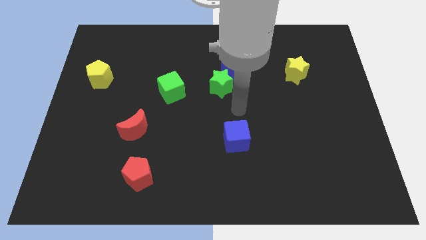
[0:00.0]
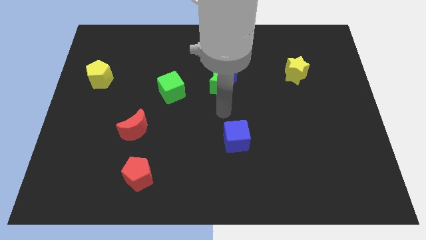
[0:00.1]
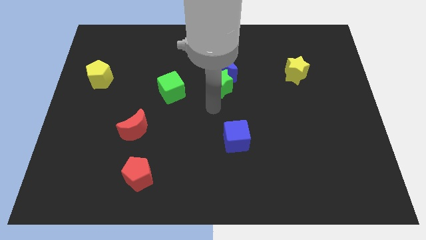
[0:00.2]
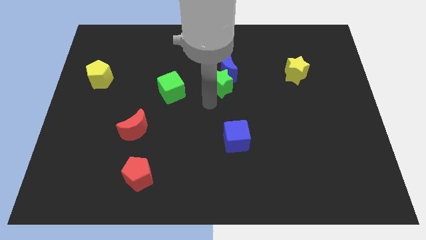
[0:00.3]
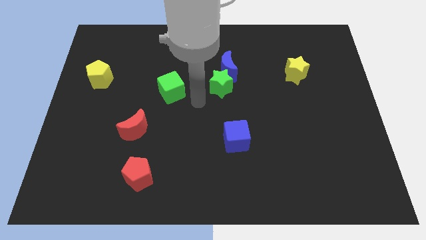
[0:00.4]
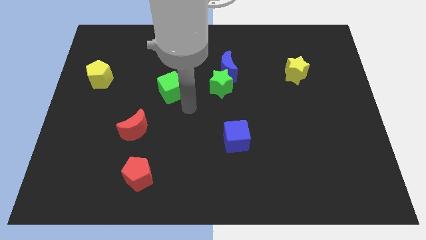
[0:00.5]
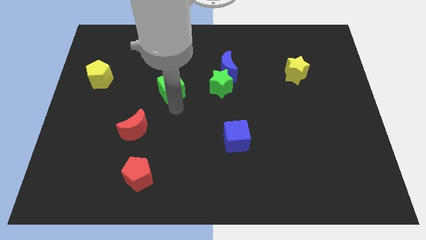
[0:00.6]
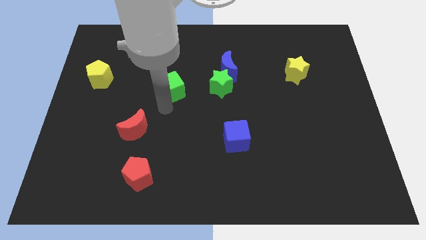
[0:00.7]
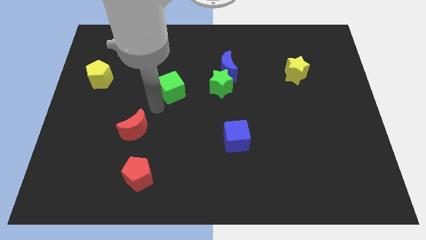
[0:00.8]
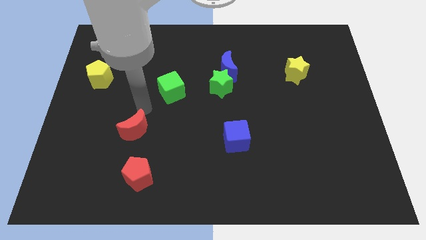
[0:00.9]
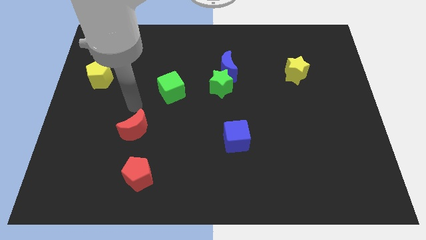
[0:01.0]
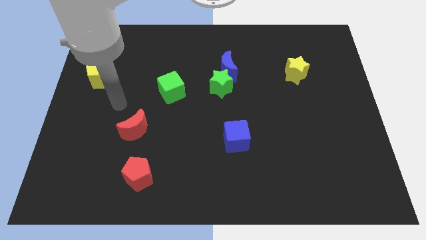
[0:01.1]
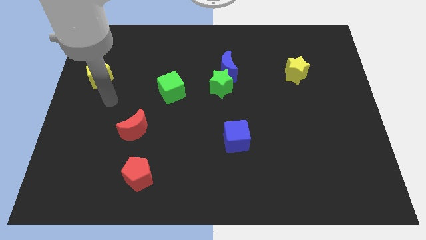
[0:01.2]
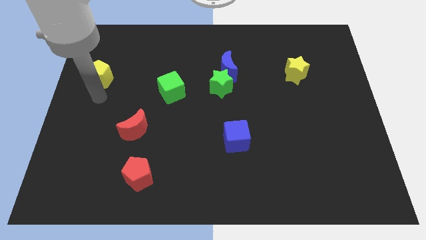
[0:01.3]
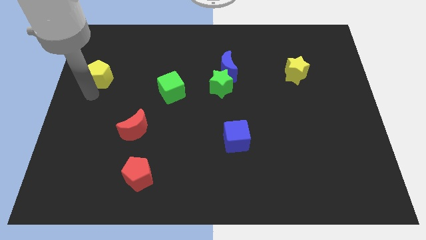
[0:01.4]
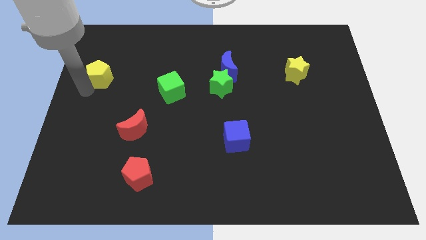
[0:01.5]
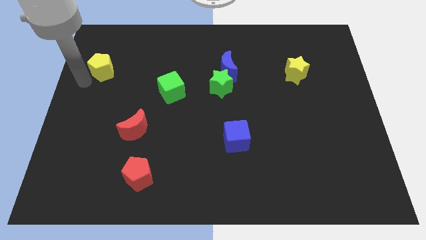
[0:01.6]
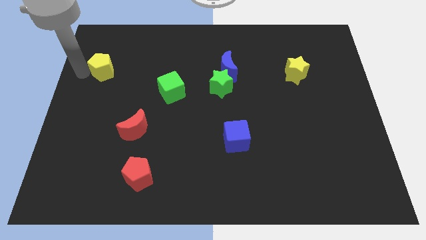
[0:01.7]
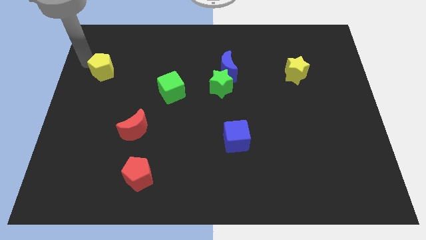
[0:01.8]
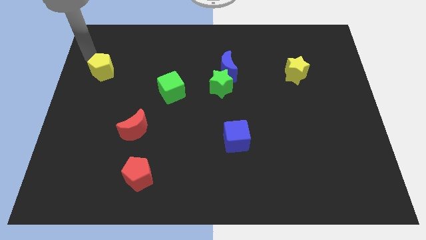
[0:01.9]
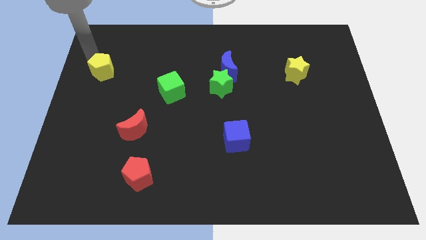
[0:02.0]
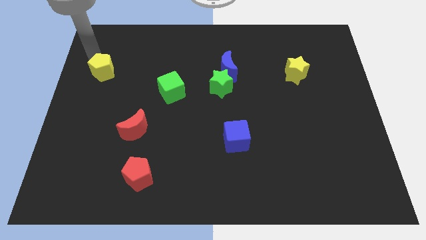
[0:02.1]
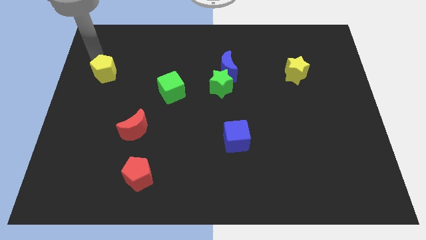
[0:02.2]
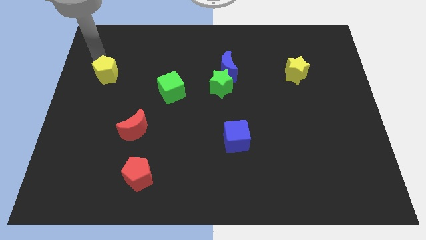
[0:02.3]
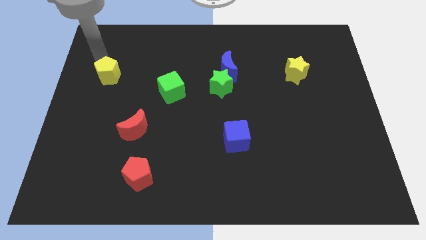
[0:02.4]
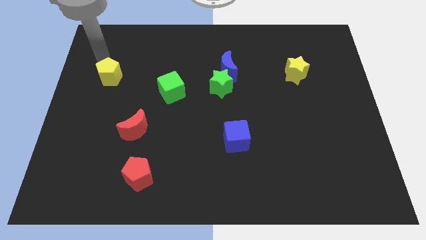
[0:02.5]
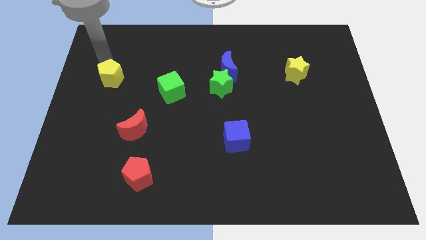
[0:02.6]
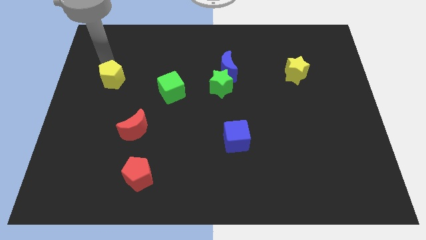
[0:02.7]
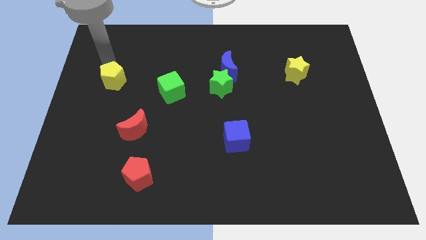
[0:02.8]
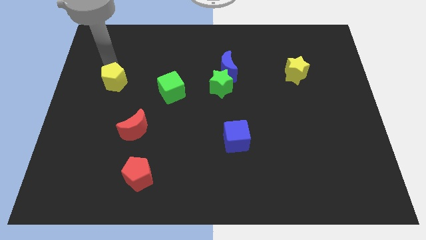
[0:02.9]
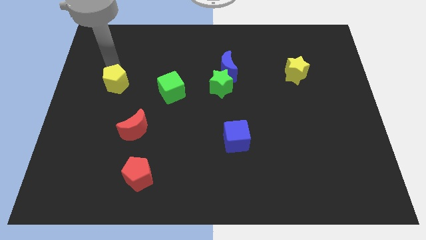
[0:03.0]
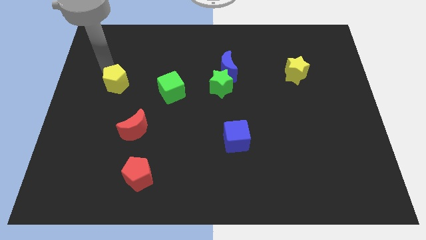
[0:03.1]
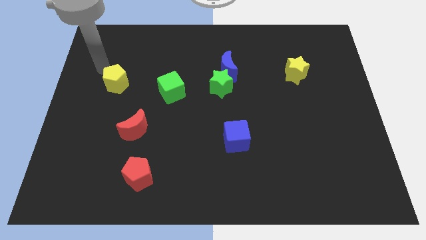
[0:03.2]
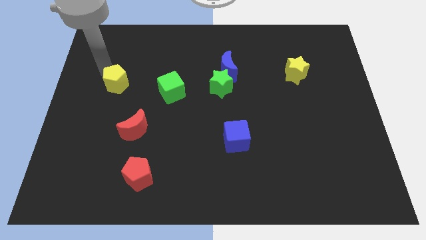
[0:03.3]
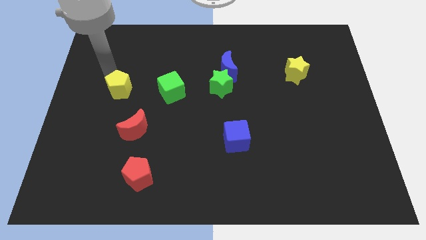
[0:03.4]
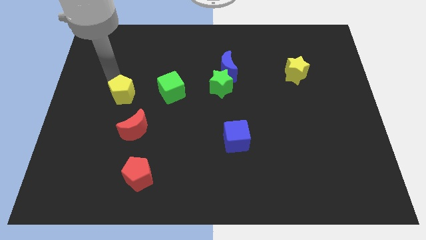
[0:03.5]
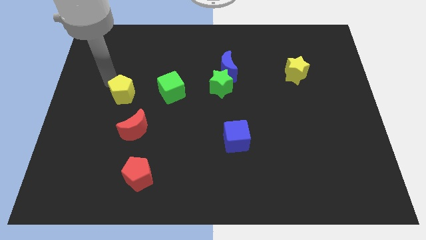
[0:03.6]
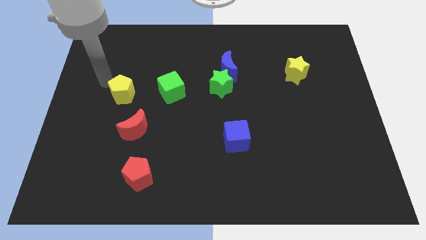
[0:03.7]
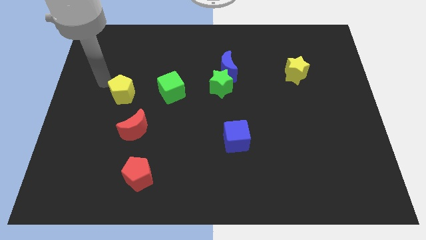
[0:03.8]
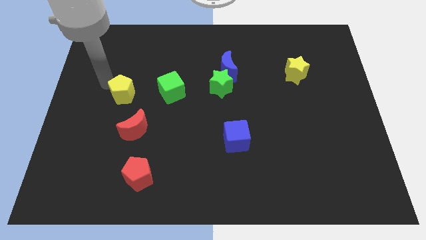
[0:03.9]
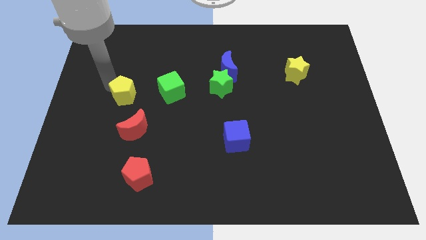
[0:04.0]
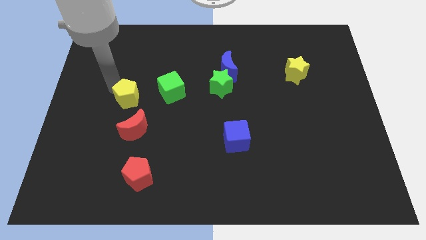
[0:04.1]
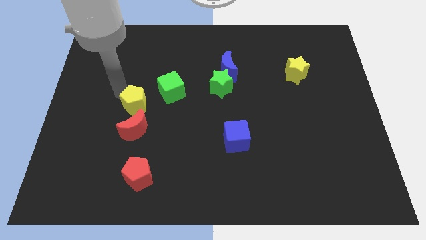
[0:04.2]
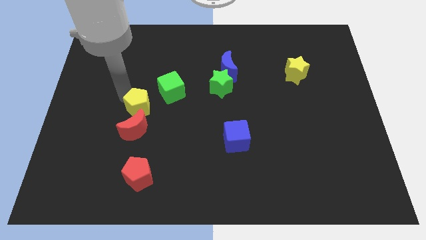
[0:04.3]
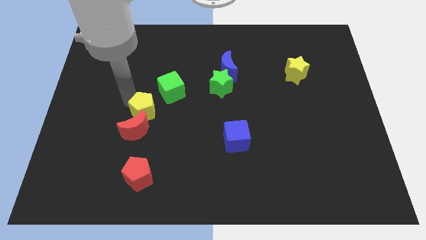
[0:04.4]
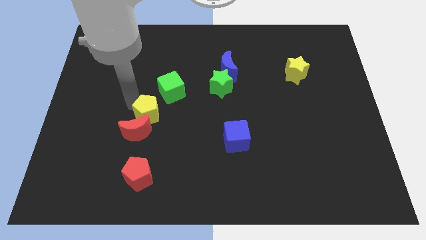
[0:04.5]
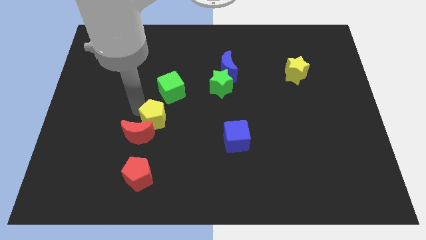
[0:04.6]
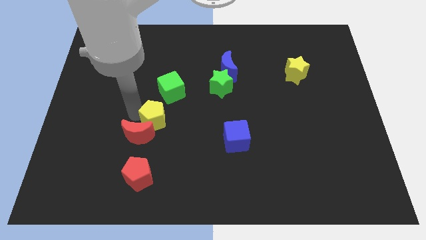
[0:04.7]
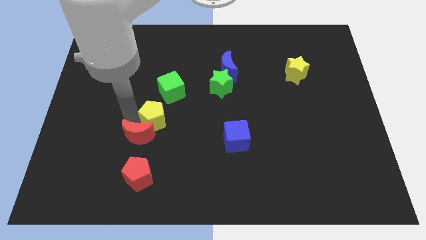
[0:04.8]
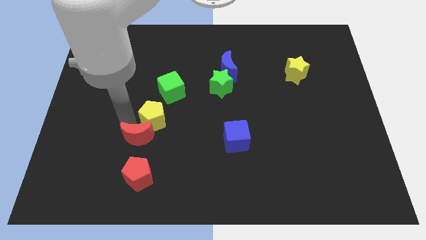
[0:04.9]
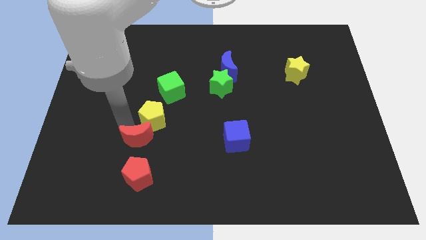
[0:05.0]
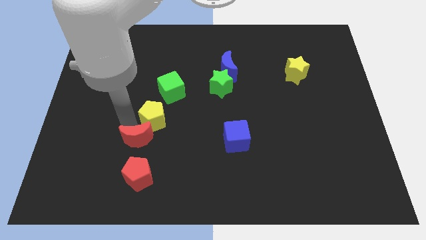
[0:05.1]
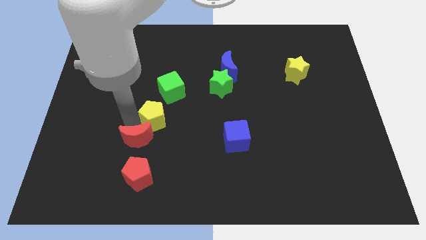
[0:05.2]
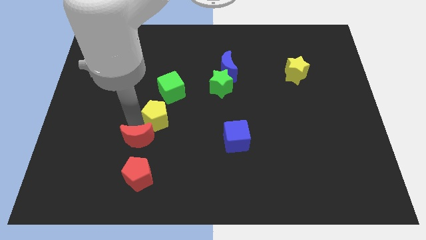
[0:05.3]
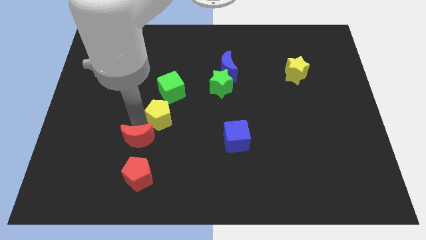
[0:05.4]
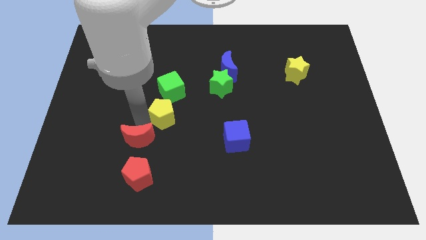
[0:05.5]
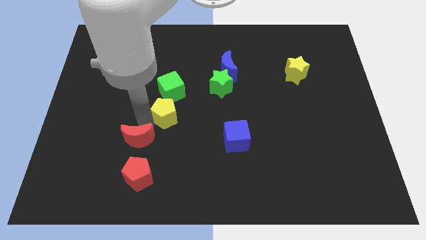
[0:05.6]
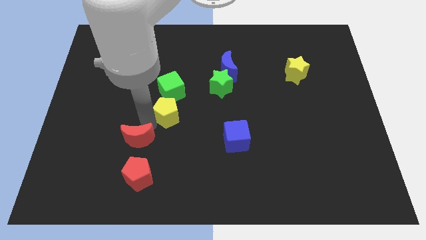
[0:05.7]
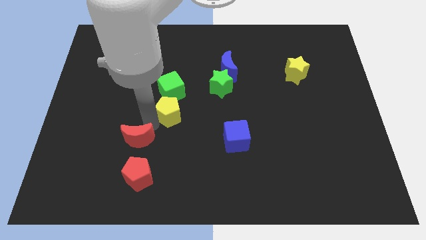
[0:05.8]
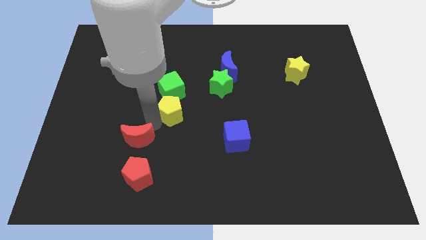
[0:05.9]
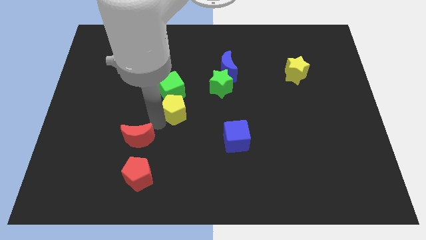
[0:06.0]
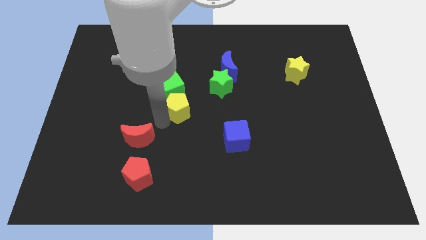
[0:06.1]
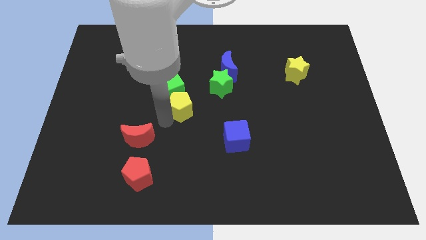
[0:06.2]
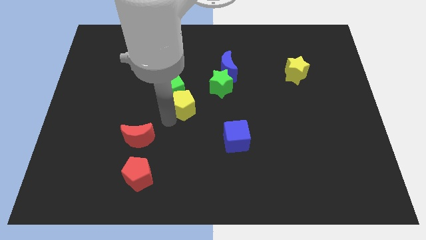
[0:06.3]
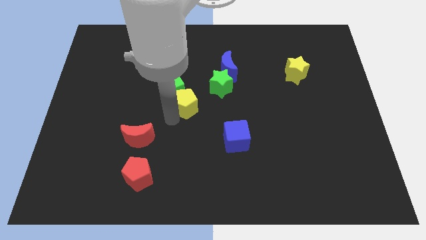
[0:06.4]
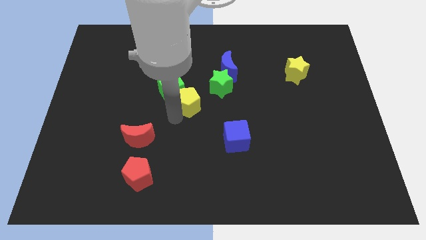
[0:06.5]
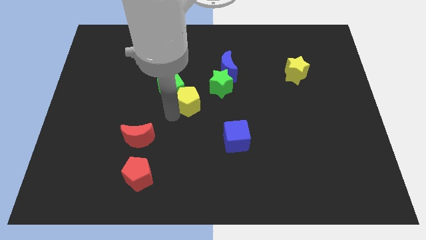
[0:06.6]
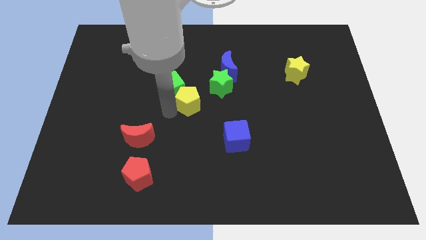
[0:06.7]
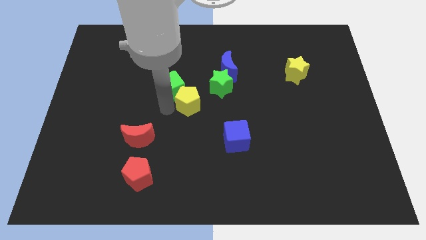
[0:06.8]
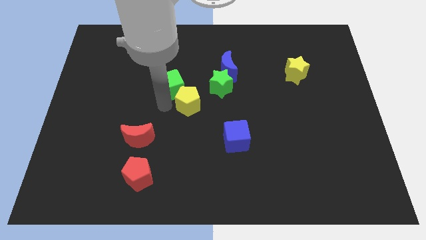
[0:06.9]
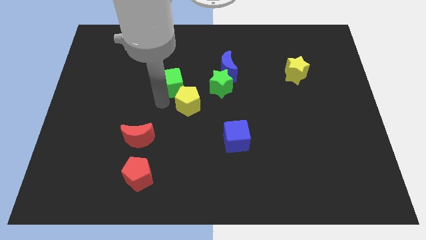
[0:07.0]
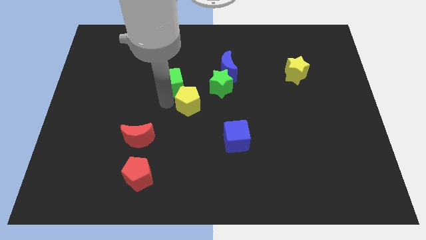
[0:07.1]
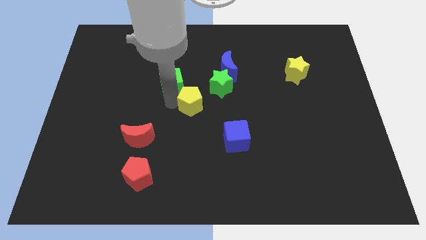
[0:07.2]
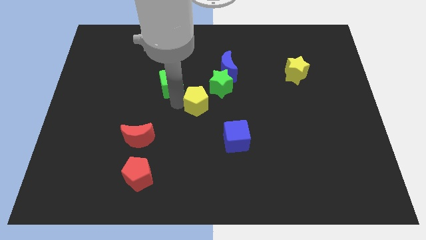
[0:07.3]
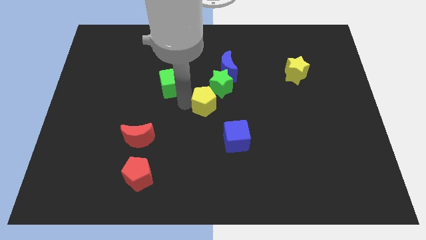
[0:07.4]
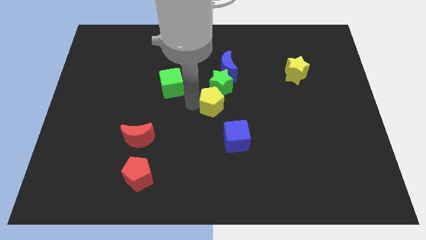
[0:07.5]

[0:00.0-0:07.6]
move the yellow pentagon to the bottom side of the blue moon

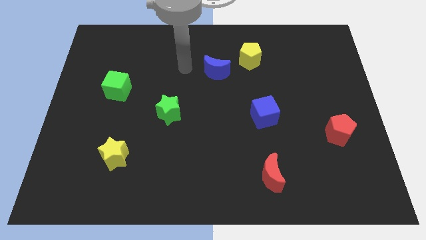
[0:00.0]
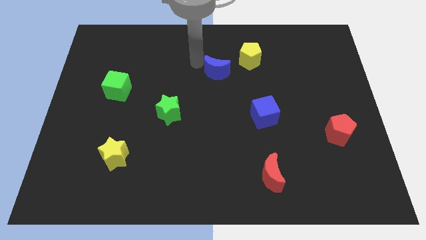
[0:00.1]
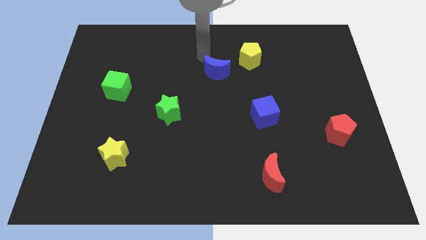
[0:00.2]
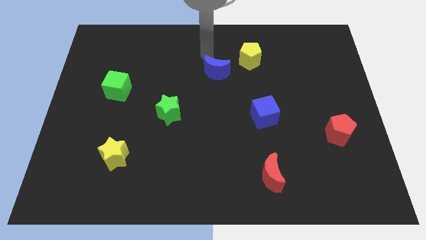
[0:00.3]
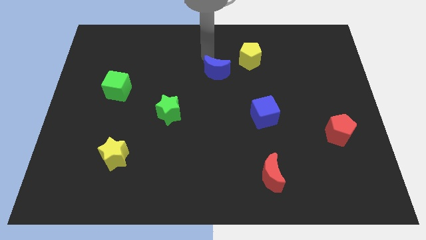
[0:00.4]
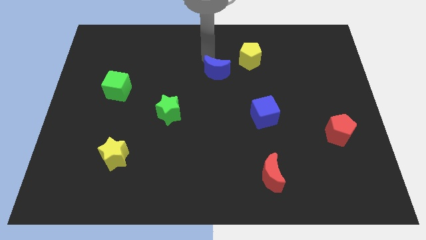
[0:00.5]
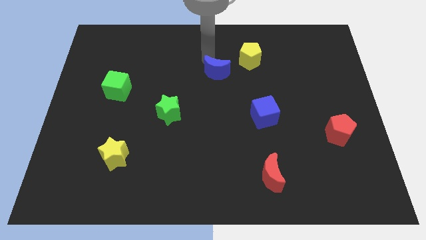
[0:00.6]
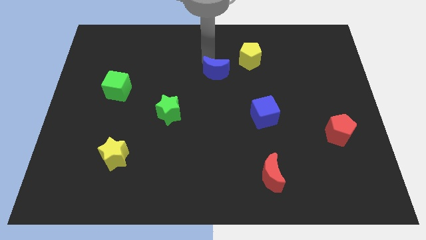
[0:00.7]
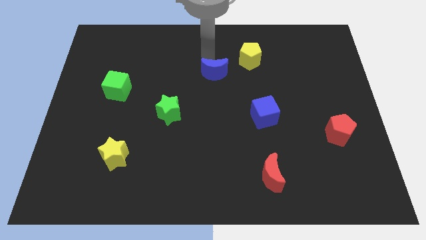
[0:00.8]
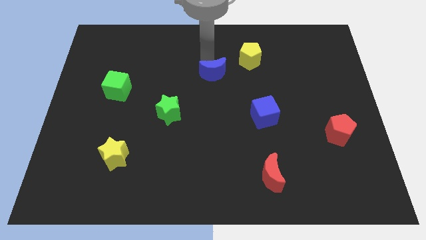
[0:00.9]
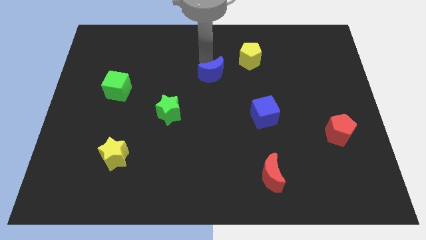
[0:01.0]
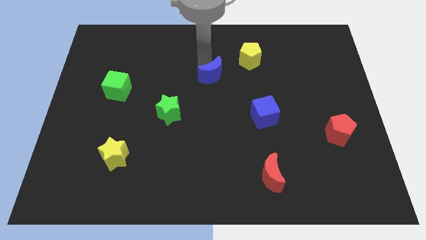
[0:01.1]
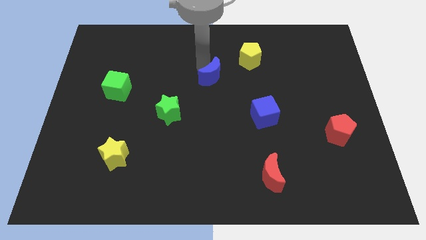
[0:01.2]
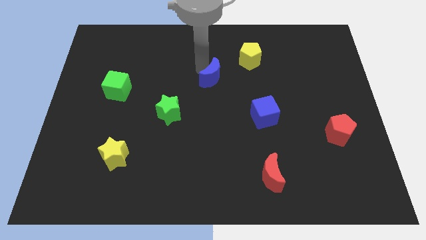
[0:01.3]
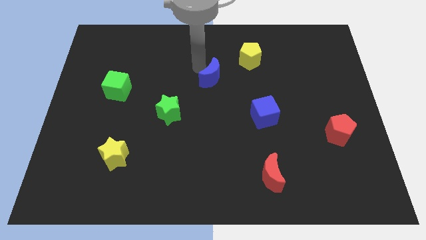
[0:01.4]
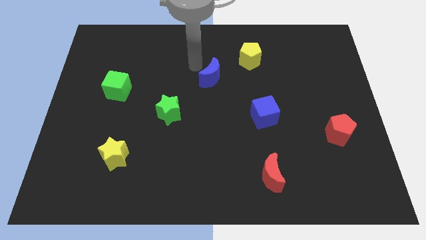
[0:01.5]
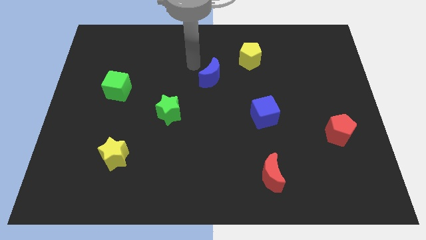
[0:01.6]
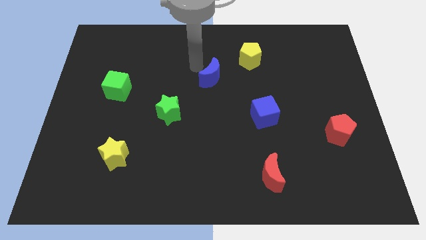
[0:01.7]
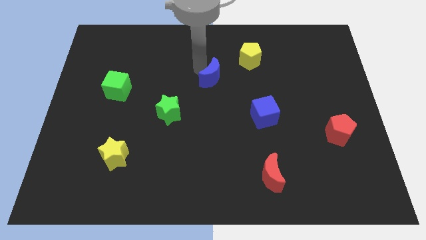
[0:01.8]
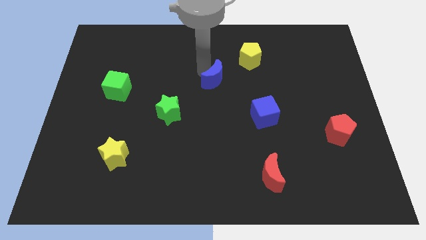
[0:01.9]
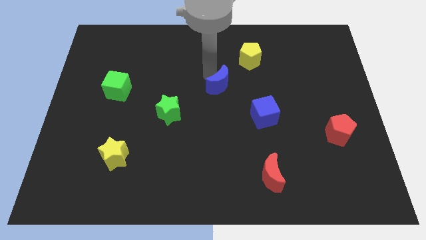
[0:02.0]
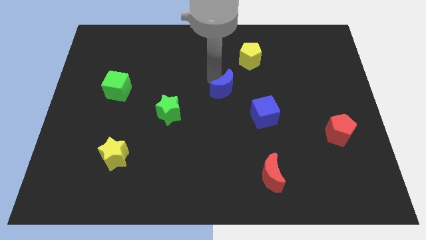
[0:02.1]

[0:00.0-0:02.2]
slide the blue moon to the top left side of the blue cube
